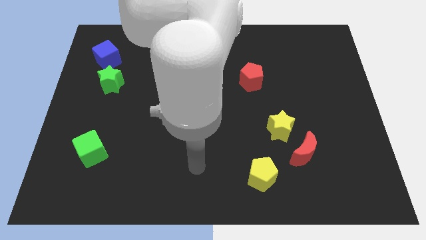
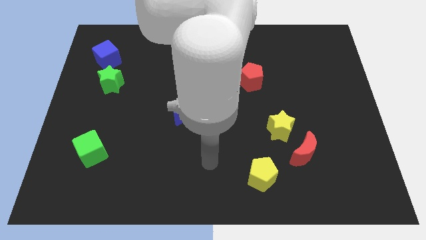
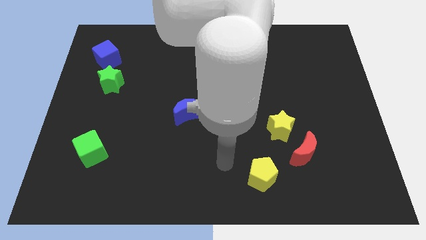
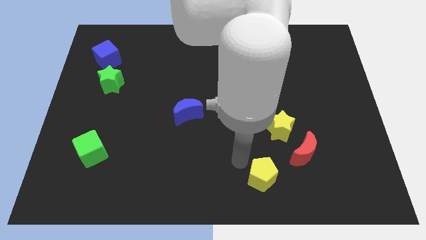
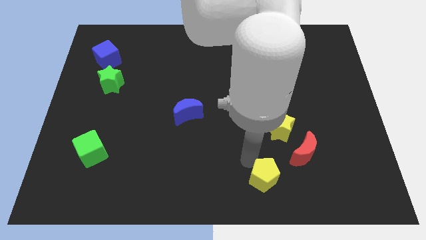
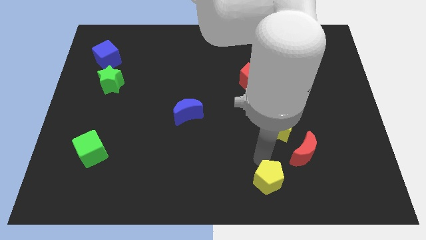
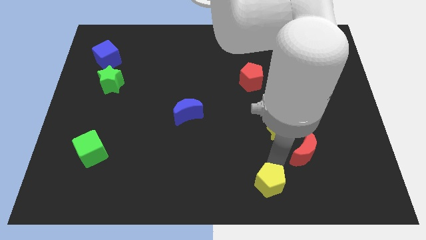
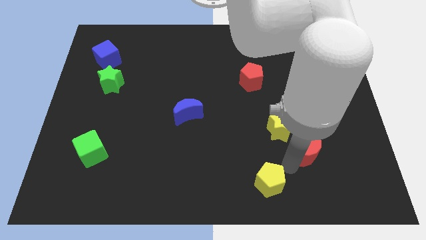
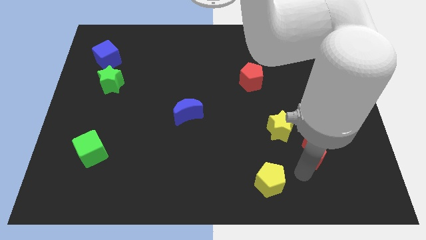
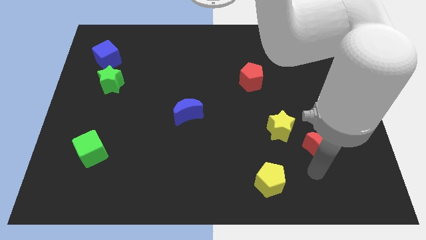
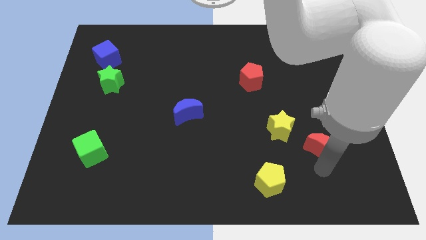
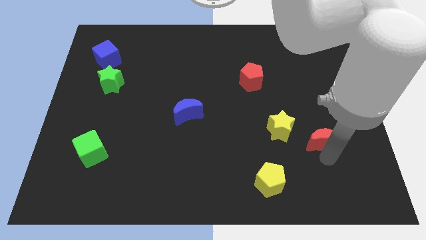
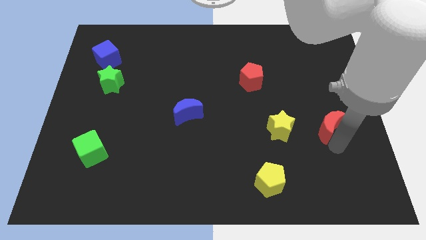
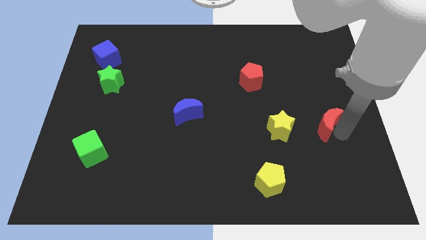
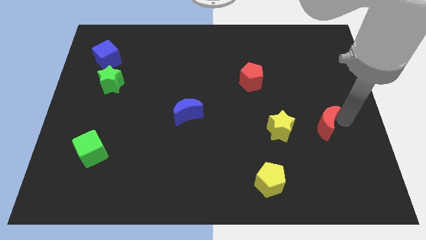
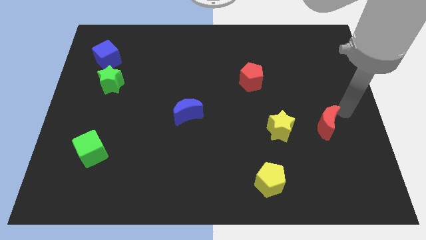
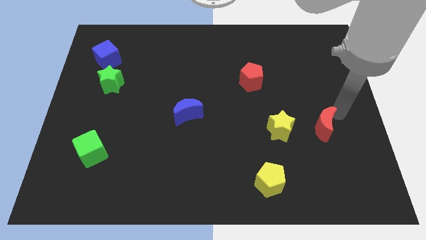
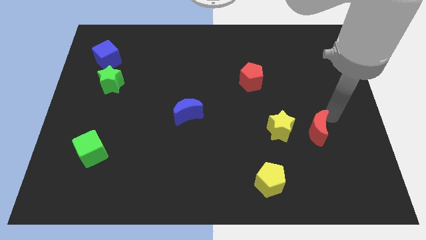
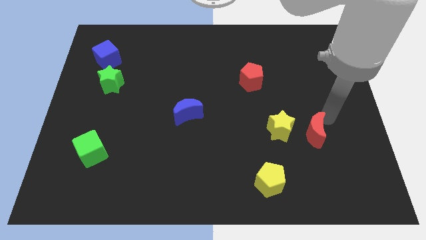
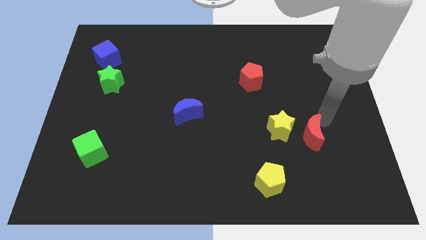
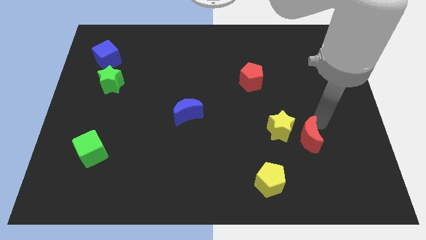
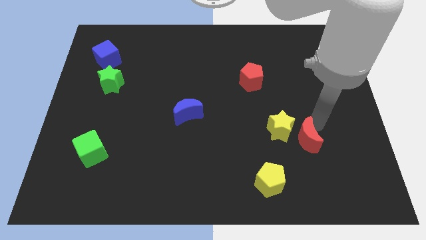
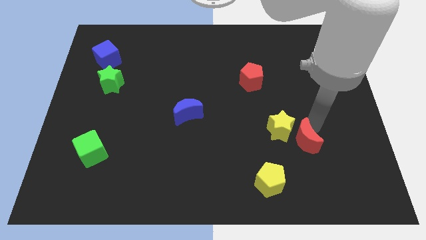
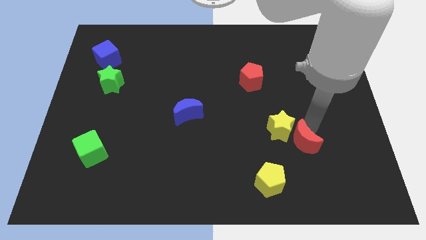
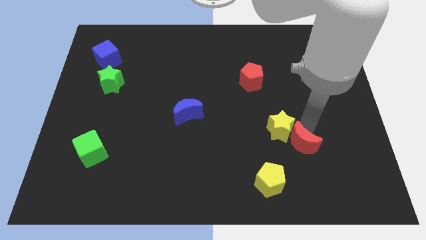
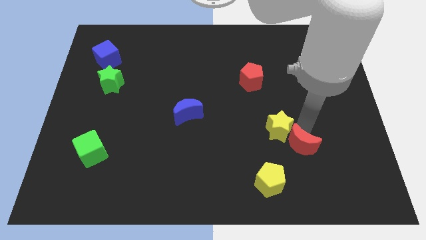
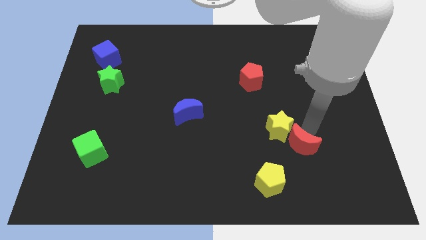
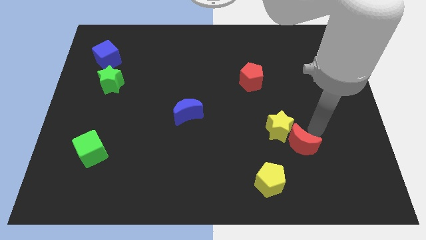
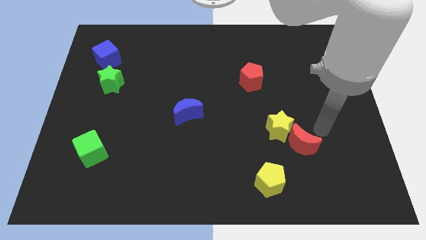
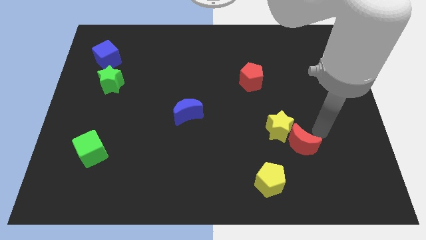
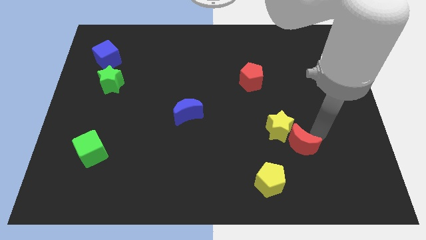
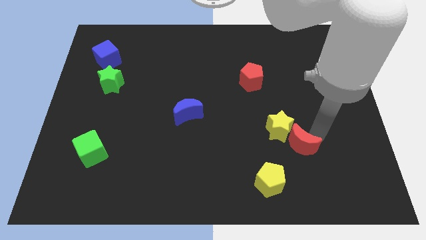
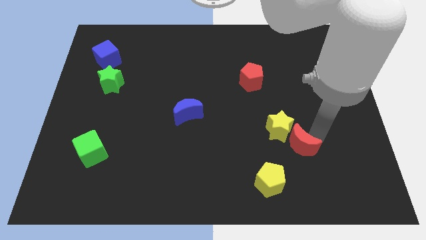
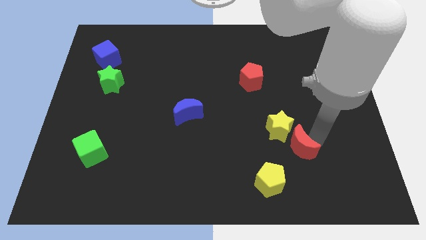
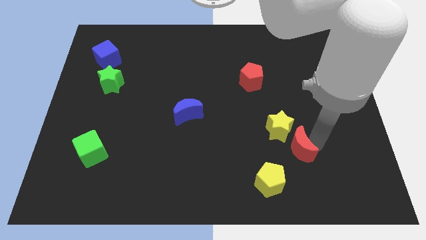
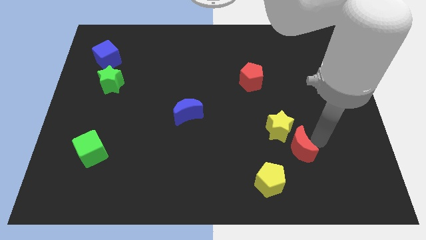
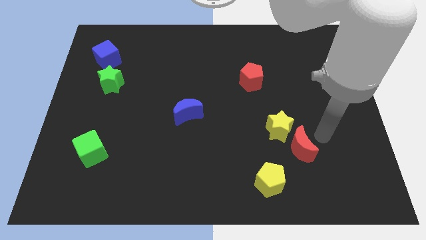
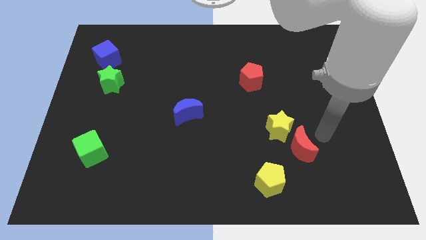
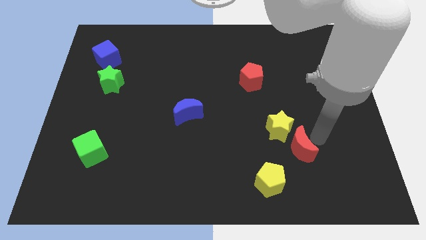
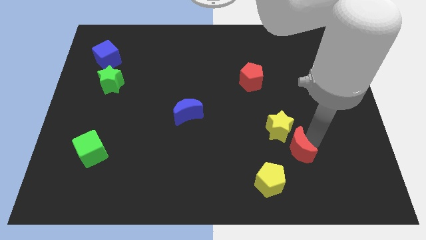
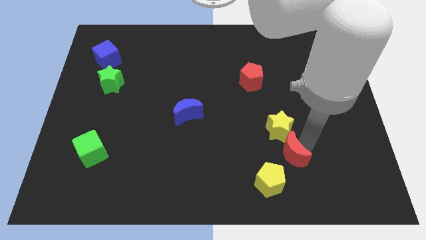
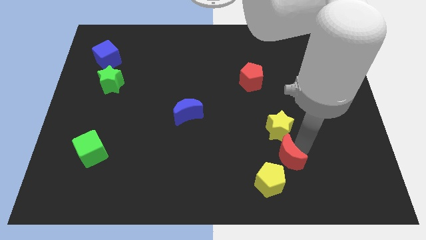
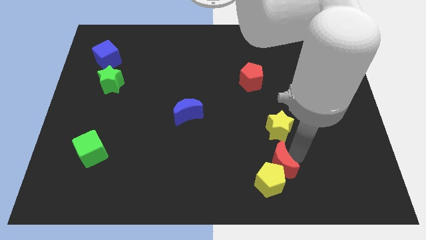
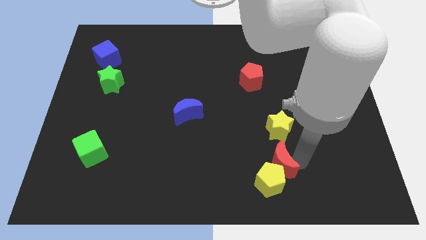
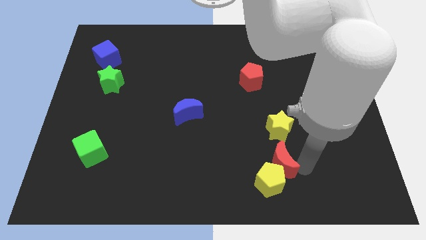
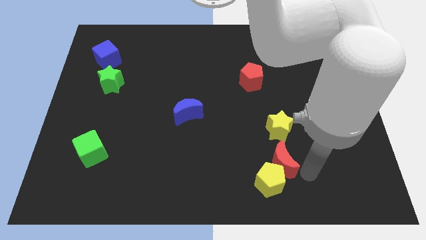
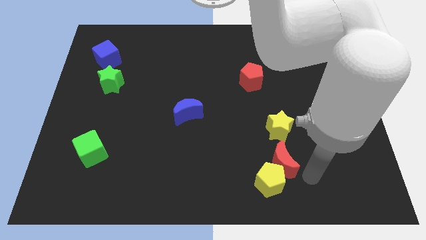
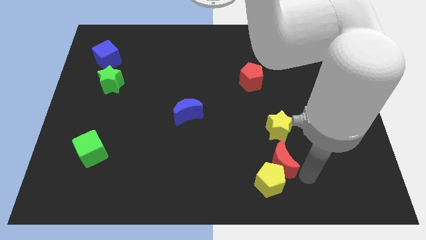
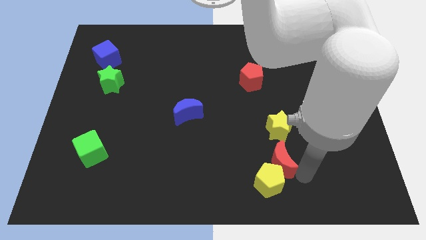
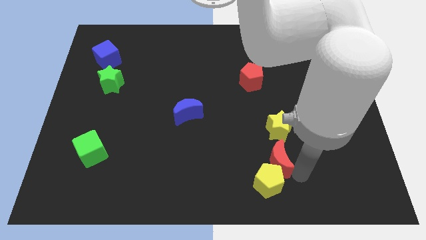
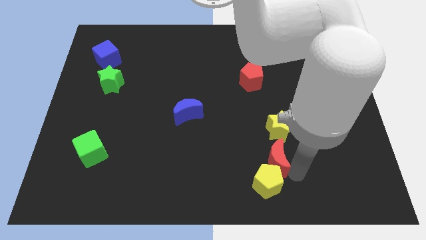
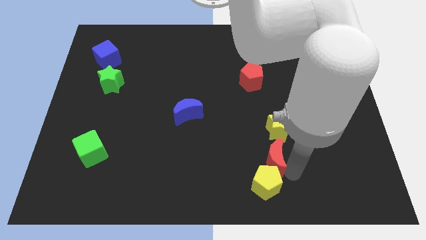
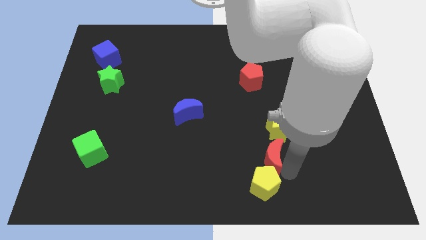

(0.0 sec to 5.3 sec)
slightly slide the red moon left

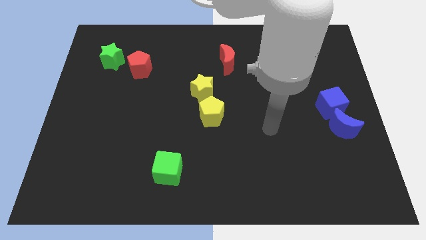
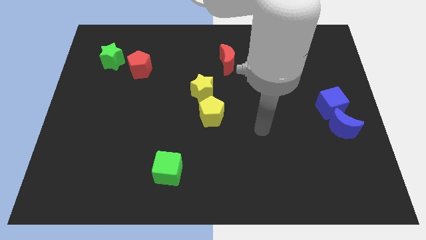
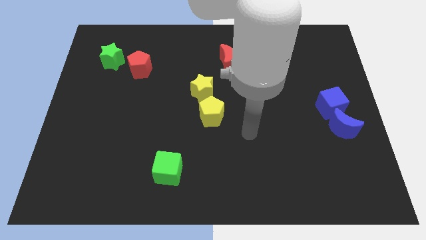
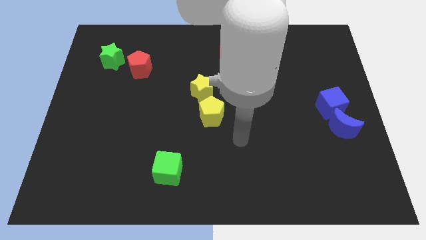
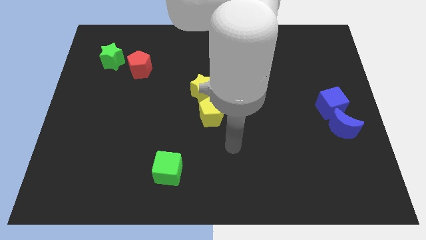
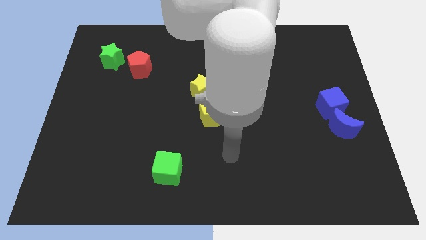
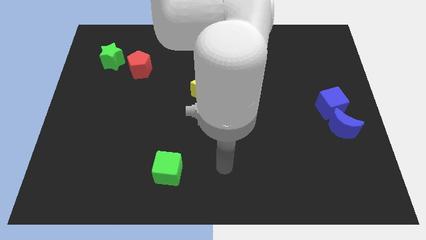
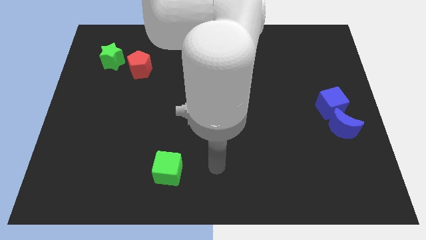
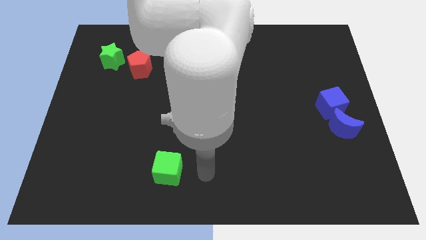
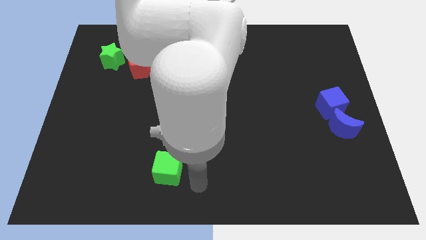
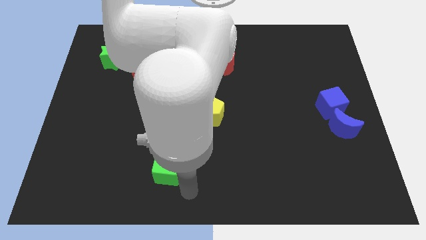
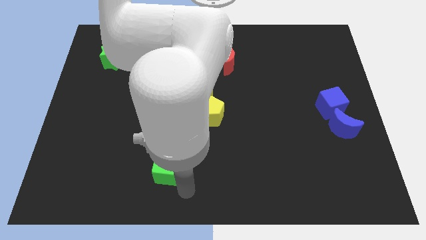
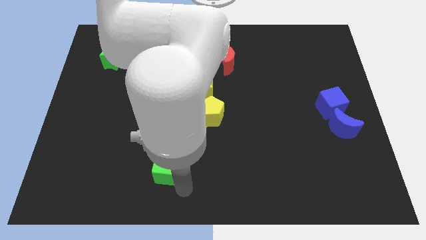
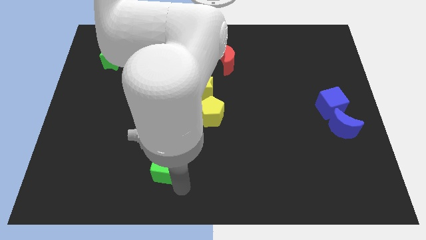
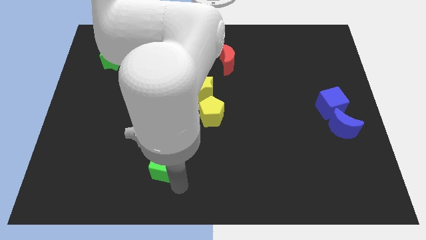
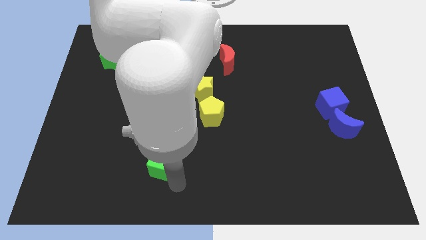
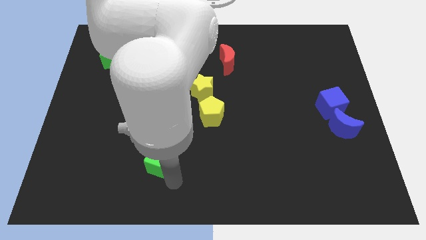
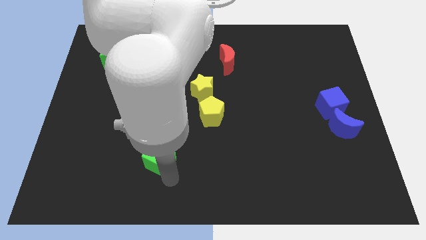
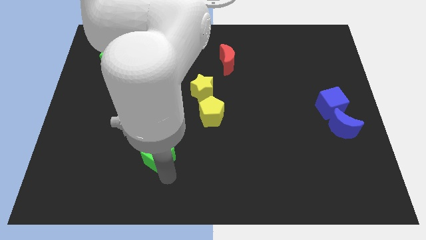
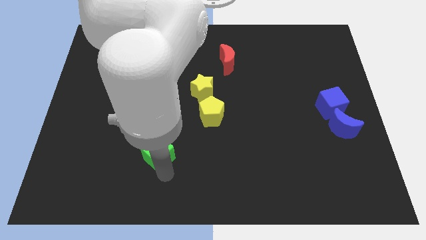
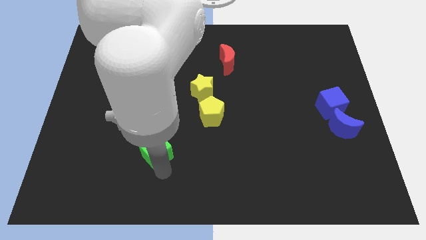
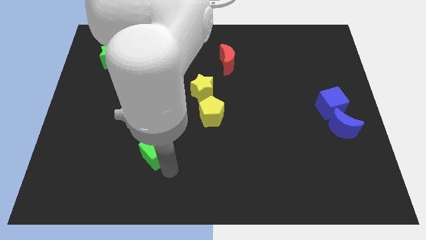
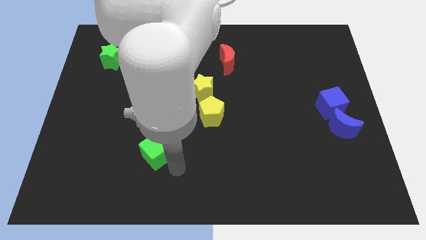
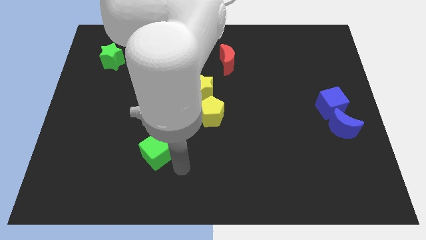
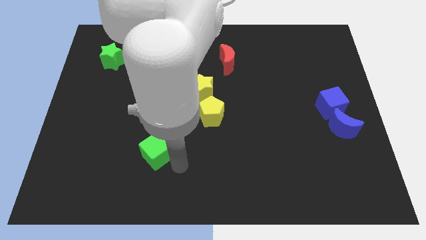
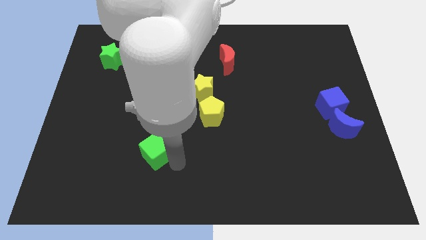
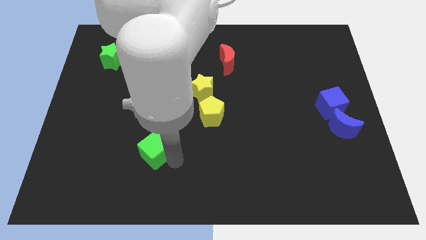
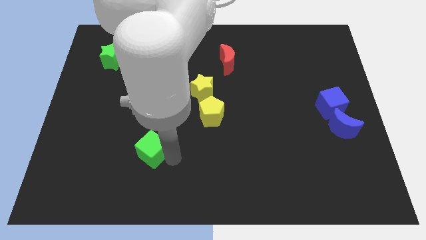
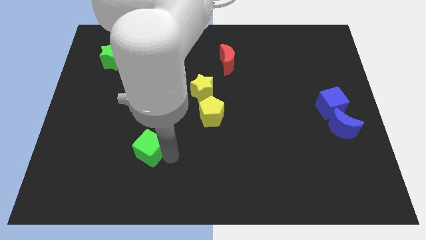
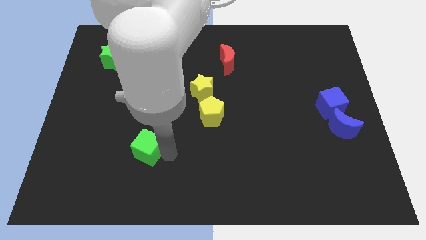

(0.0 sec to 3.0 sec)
push the green cube a bit up and to the left
